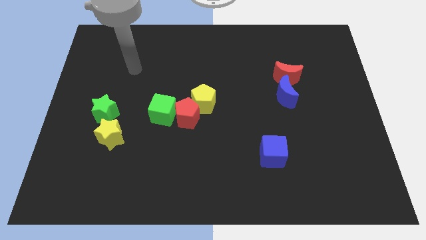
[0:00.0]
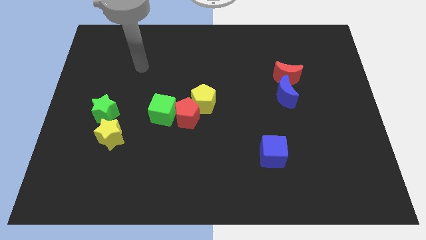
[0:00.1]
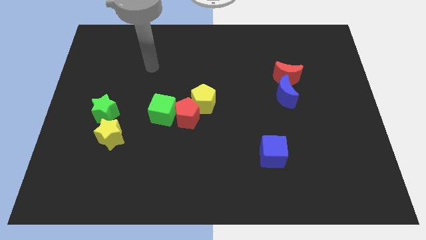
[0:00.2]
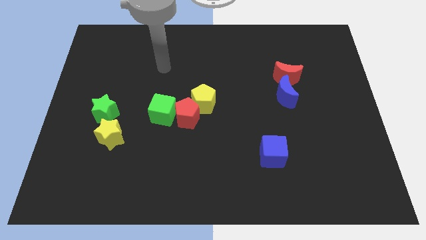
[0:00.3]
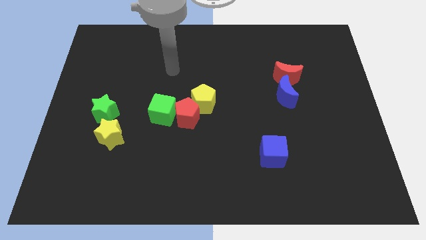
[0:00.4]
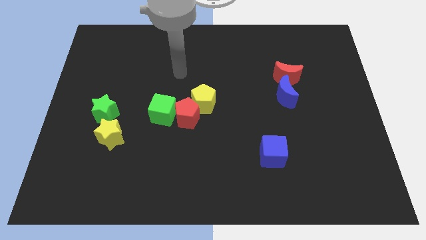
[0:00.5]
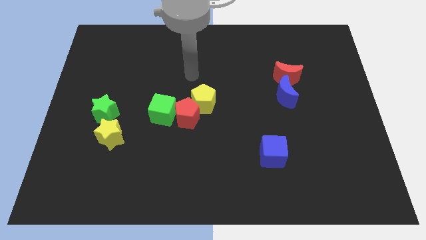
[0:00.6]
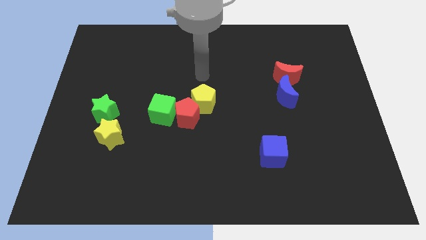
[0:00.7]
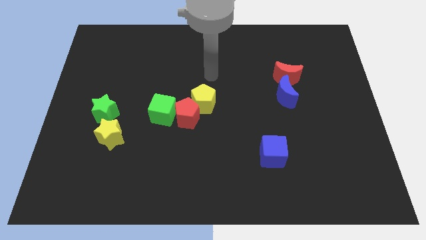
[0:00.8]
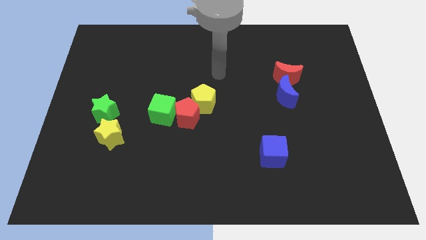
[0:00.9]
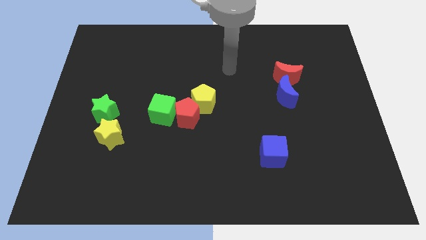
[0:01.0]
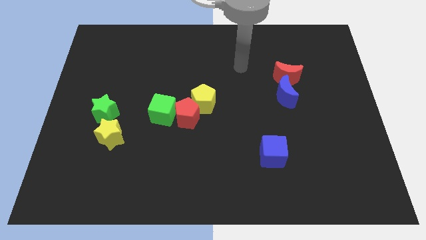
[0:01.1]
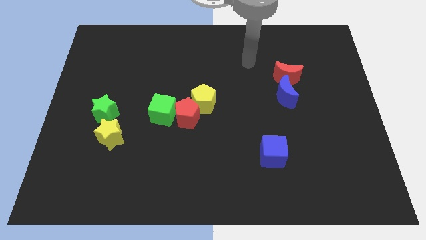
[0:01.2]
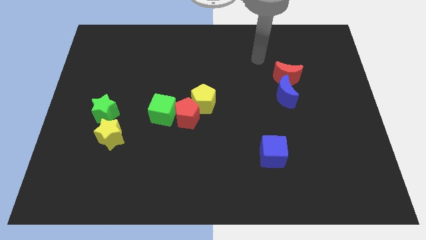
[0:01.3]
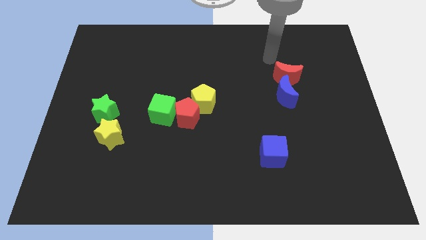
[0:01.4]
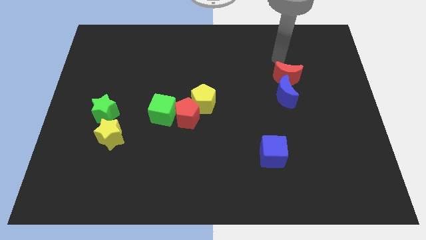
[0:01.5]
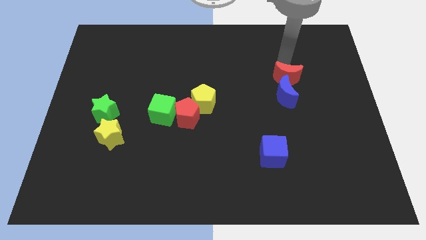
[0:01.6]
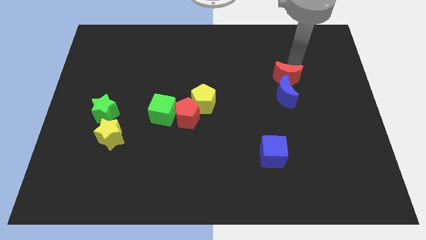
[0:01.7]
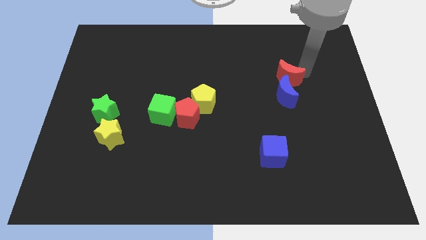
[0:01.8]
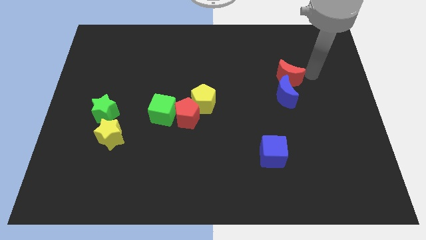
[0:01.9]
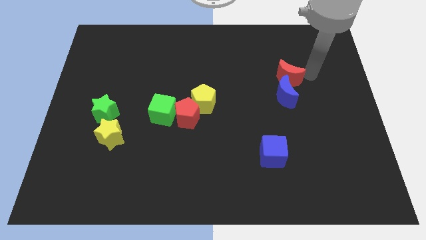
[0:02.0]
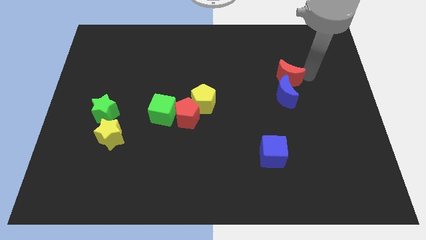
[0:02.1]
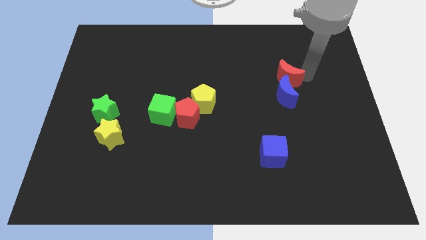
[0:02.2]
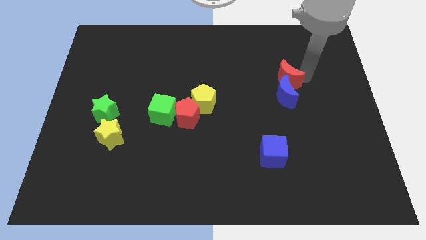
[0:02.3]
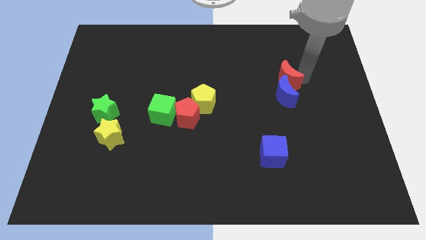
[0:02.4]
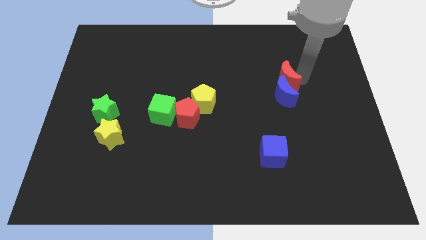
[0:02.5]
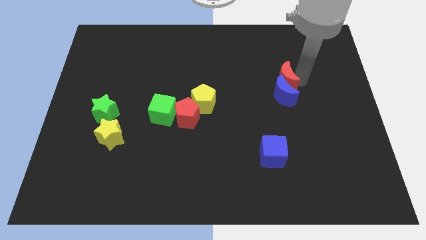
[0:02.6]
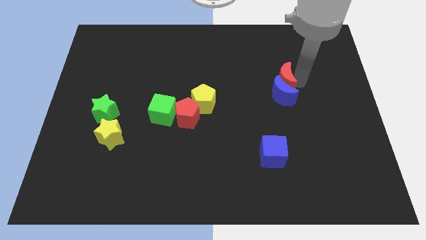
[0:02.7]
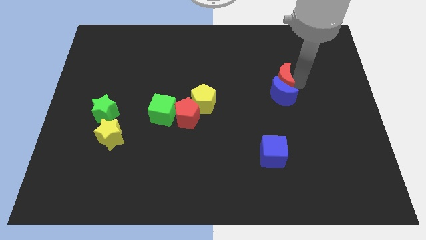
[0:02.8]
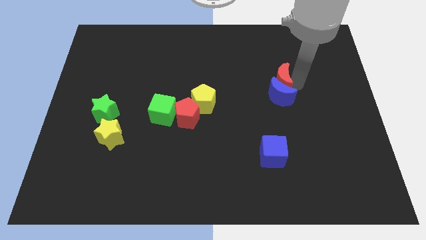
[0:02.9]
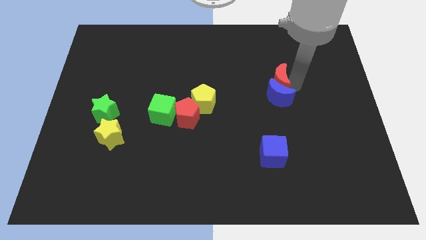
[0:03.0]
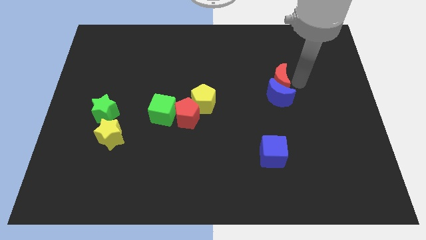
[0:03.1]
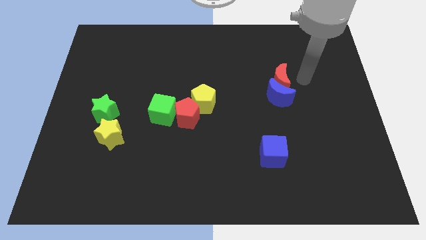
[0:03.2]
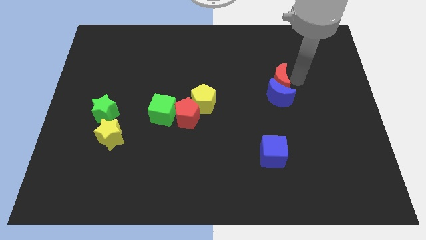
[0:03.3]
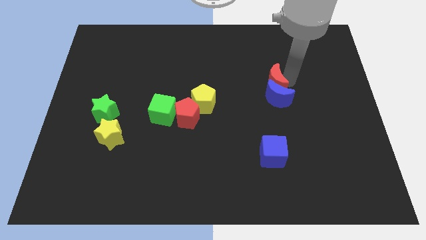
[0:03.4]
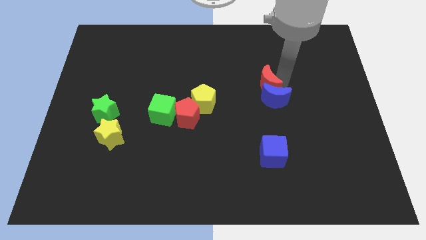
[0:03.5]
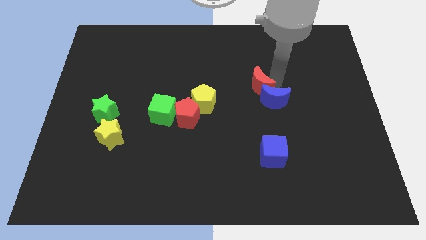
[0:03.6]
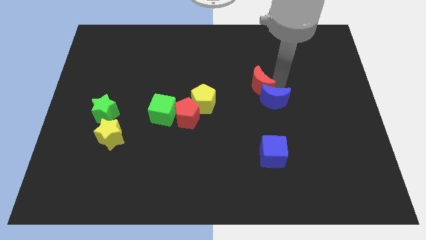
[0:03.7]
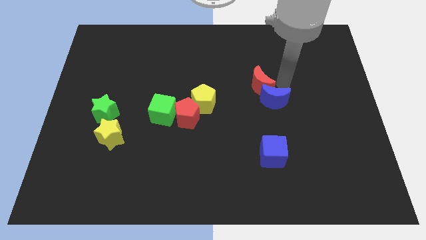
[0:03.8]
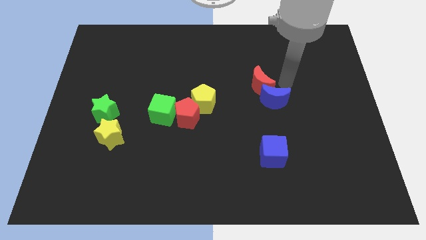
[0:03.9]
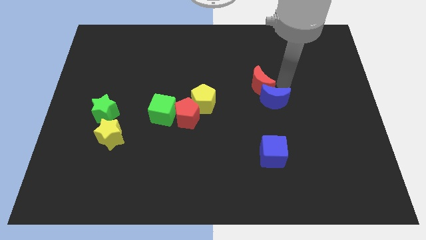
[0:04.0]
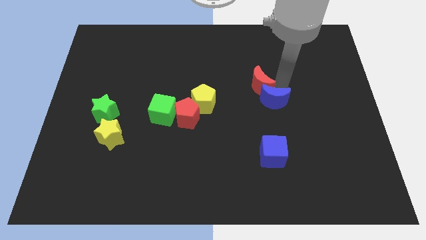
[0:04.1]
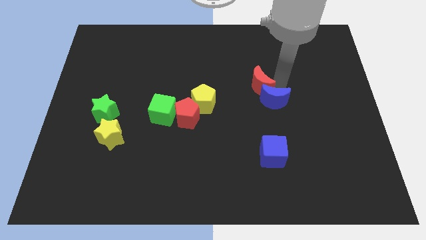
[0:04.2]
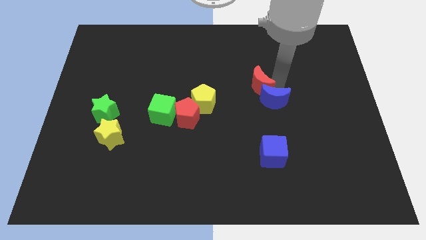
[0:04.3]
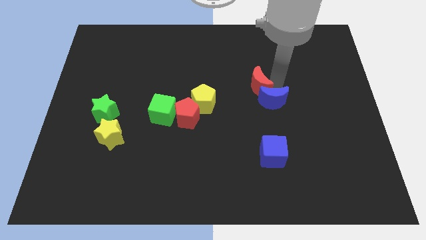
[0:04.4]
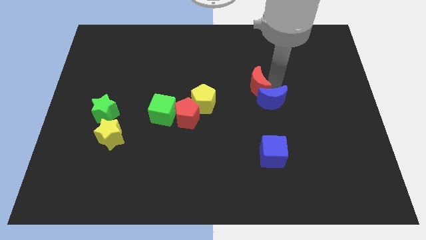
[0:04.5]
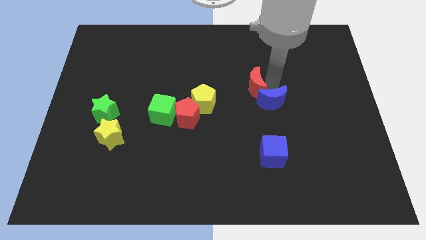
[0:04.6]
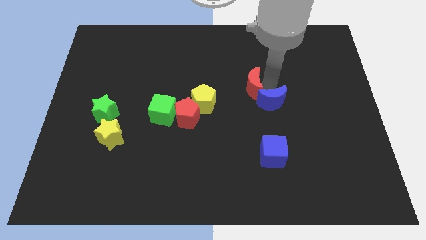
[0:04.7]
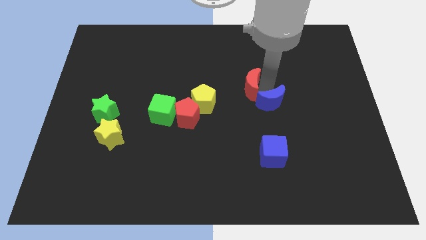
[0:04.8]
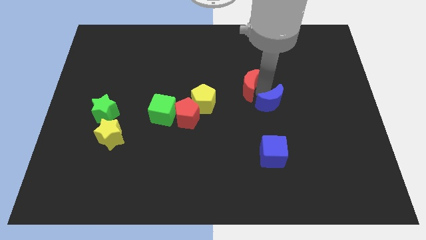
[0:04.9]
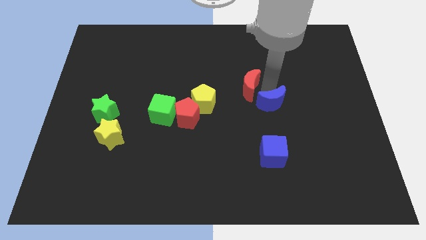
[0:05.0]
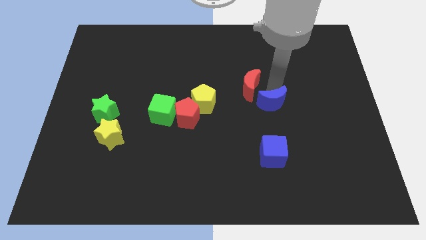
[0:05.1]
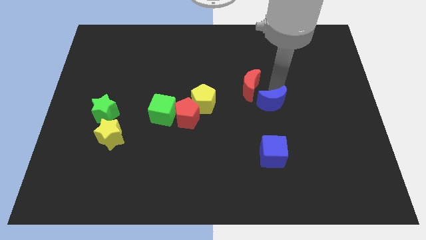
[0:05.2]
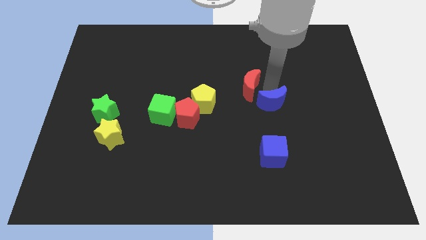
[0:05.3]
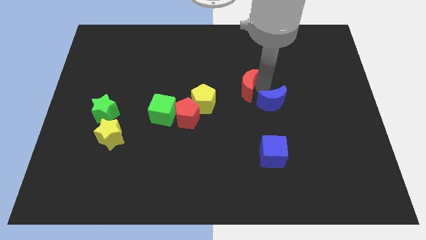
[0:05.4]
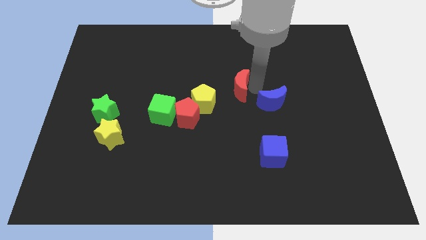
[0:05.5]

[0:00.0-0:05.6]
slide the red moon to the top right side of the yellow pentagon

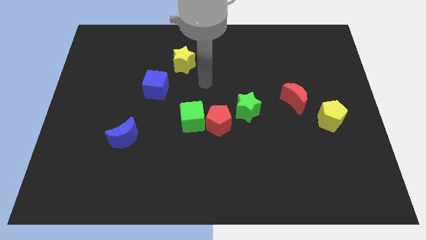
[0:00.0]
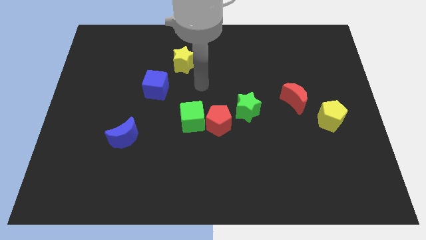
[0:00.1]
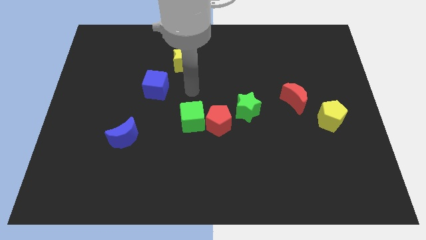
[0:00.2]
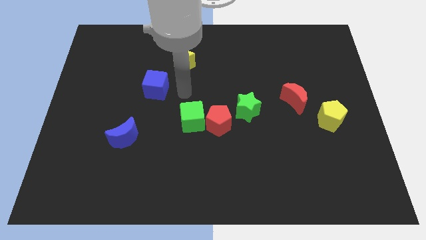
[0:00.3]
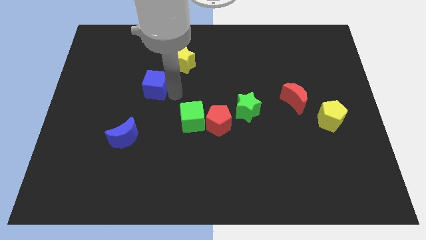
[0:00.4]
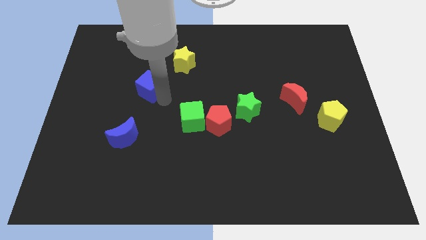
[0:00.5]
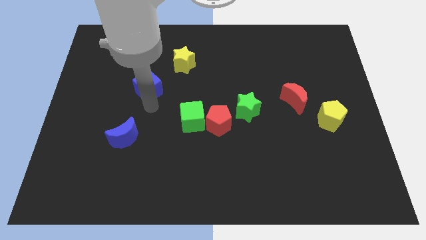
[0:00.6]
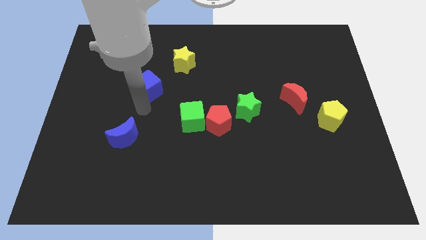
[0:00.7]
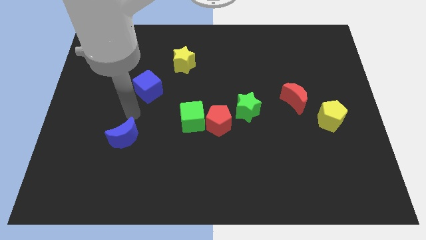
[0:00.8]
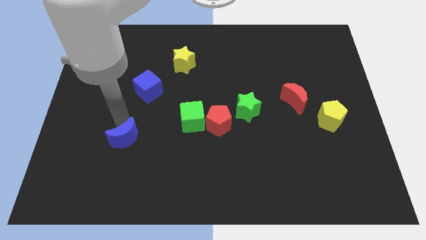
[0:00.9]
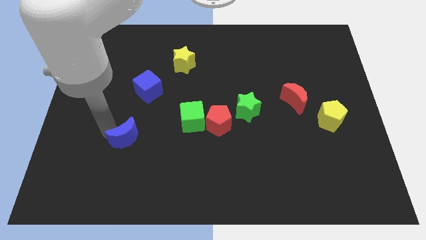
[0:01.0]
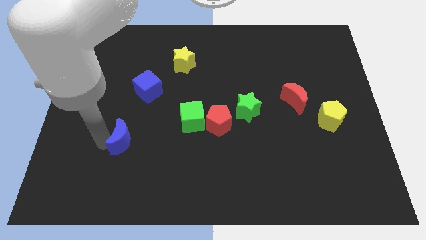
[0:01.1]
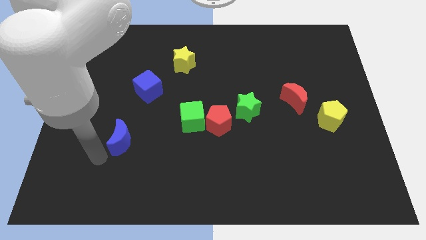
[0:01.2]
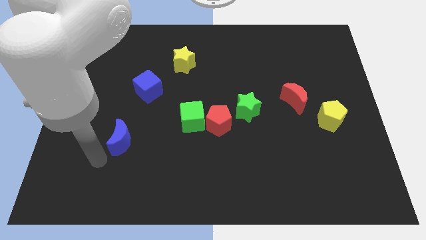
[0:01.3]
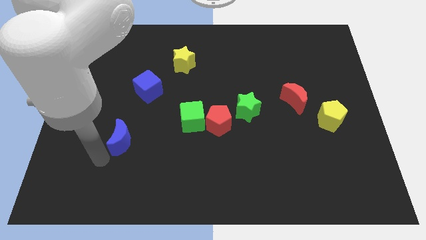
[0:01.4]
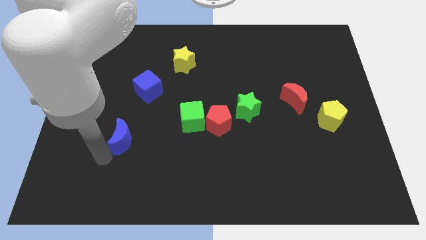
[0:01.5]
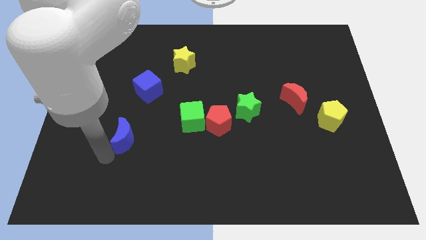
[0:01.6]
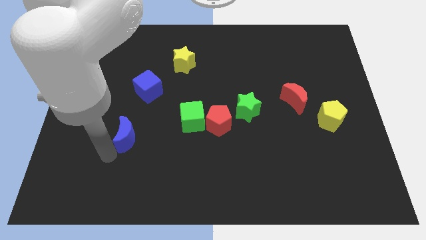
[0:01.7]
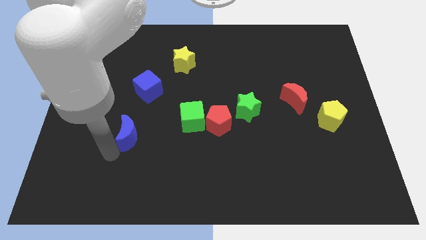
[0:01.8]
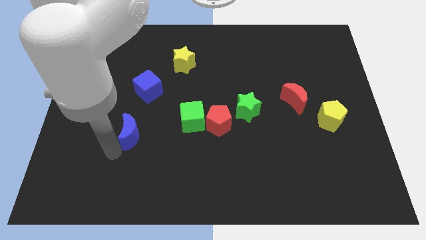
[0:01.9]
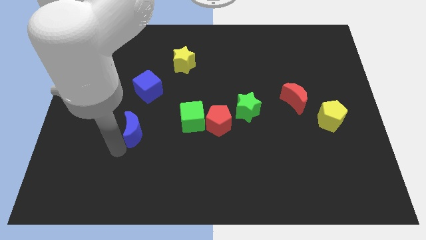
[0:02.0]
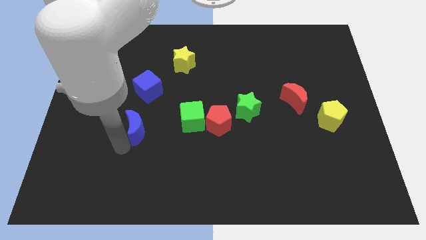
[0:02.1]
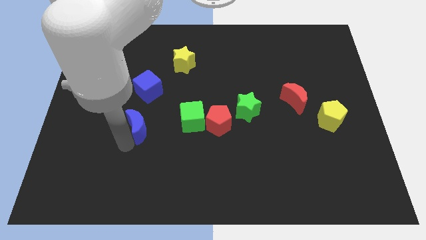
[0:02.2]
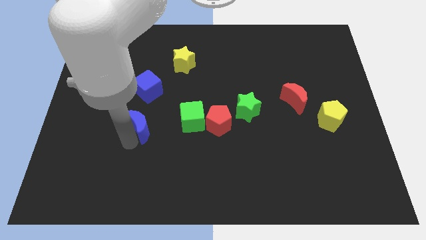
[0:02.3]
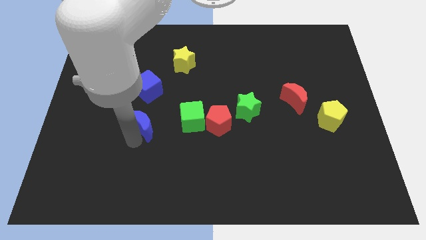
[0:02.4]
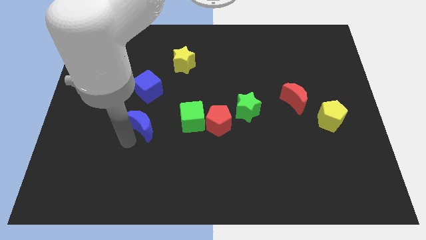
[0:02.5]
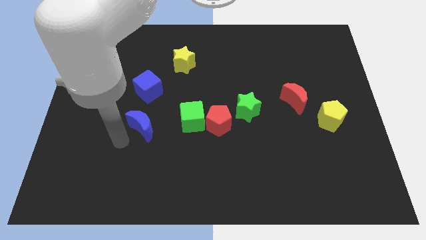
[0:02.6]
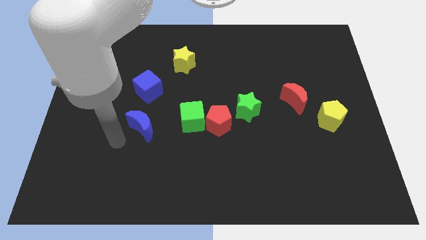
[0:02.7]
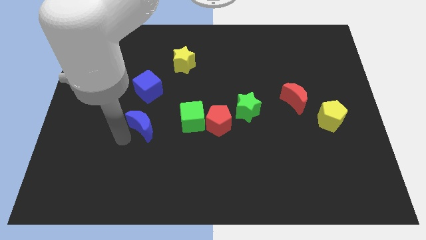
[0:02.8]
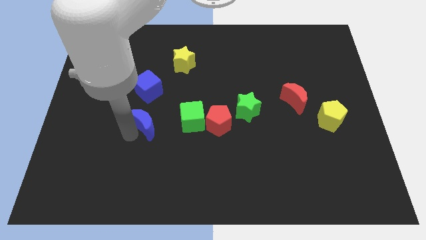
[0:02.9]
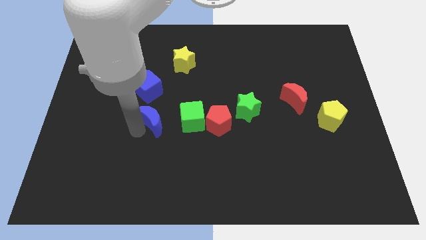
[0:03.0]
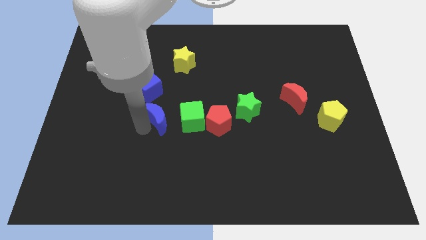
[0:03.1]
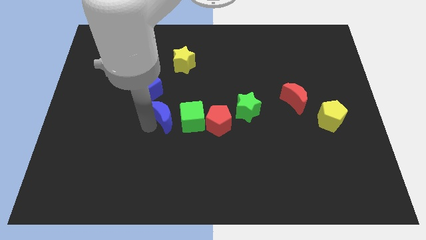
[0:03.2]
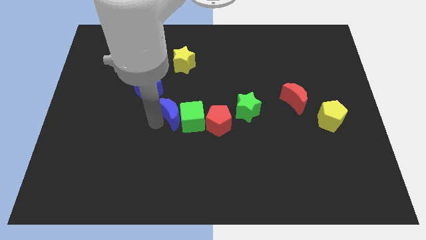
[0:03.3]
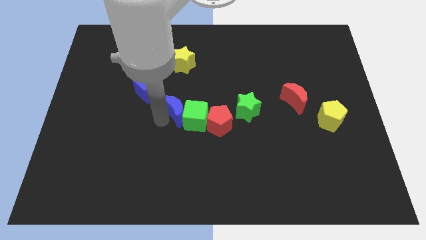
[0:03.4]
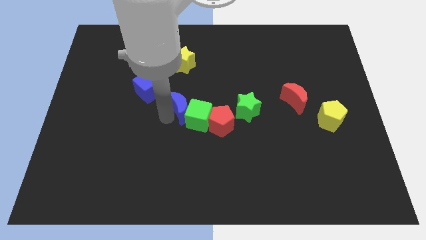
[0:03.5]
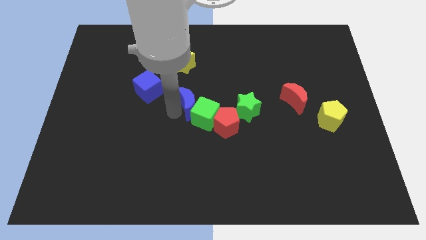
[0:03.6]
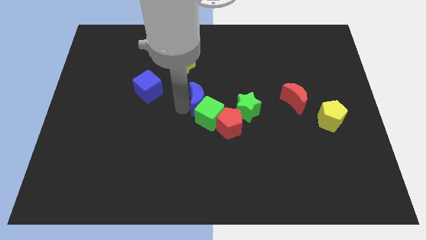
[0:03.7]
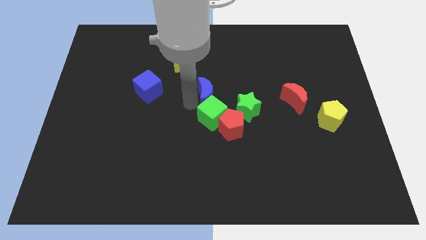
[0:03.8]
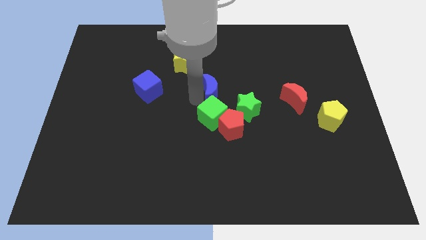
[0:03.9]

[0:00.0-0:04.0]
put the blue moon to the top right side of the green cube
